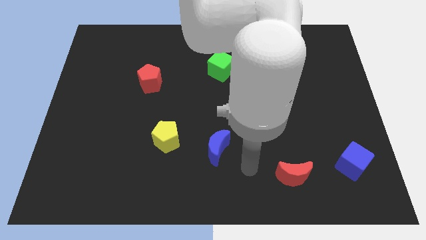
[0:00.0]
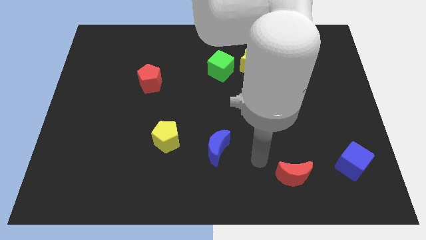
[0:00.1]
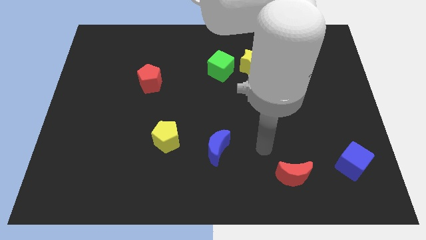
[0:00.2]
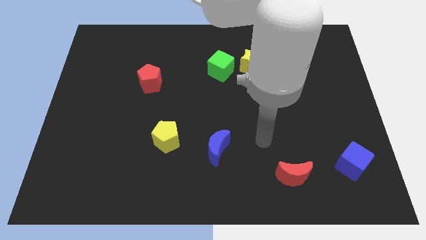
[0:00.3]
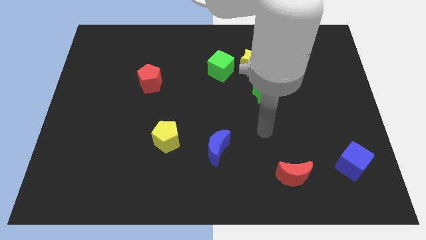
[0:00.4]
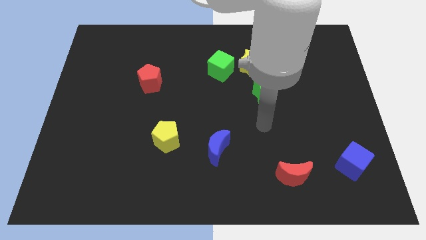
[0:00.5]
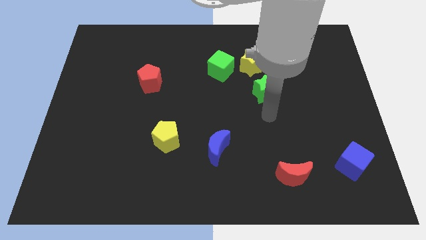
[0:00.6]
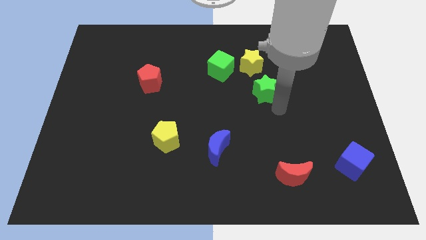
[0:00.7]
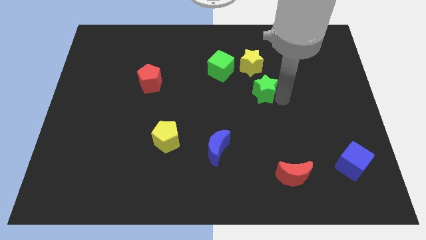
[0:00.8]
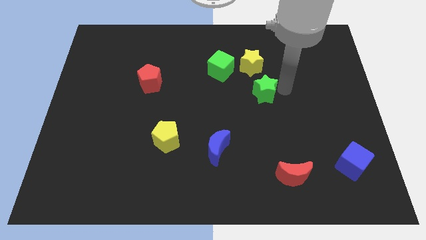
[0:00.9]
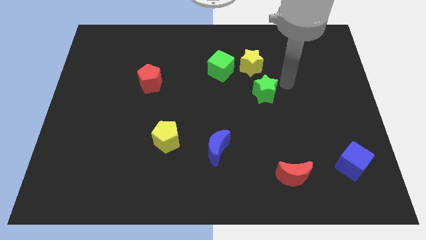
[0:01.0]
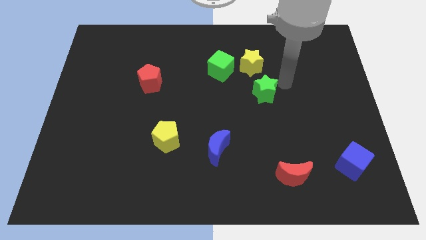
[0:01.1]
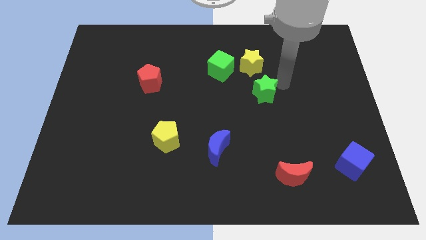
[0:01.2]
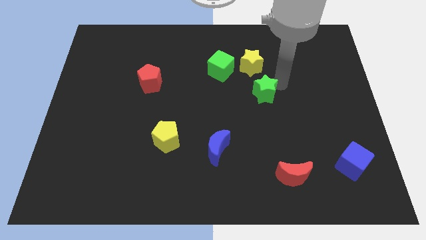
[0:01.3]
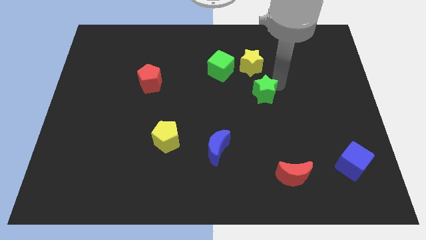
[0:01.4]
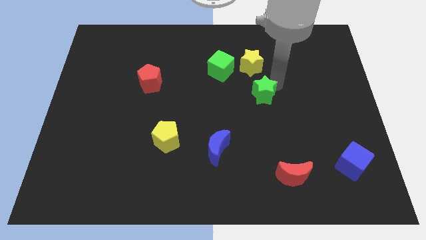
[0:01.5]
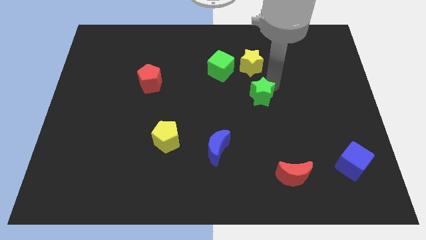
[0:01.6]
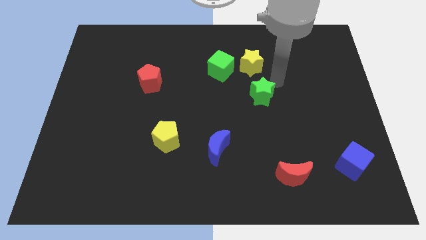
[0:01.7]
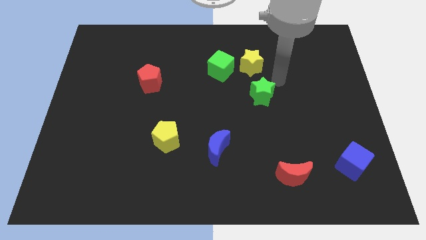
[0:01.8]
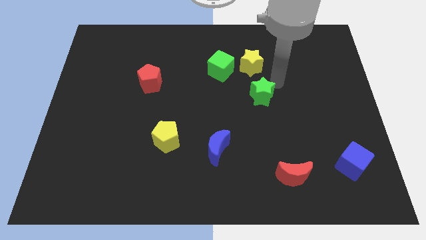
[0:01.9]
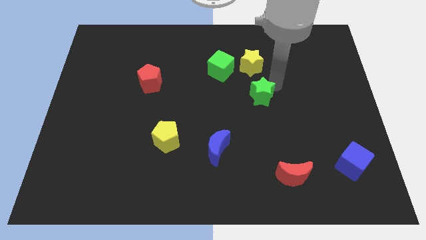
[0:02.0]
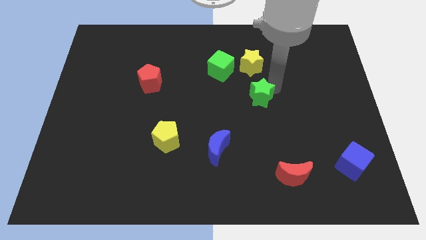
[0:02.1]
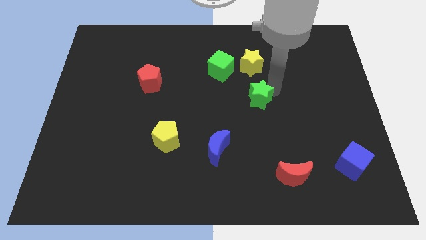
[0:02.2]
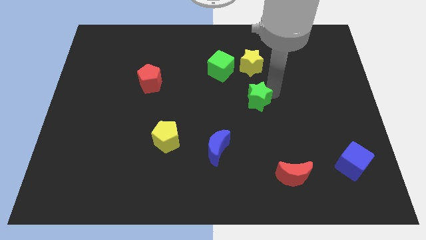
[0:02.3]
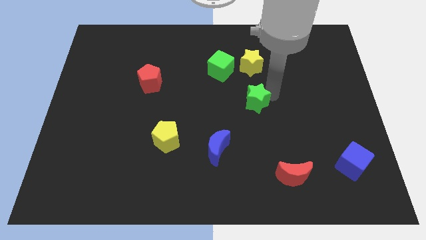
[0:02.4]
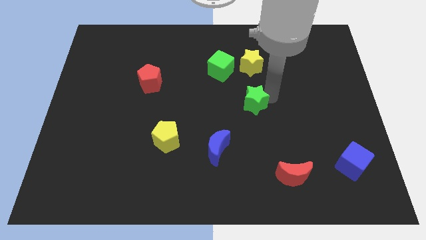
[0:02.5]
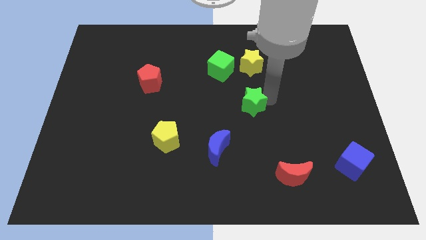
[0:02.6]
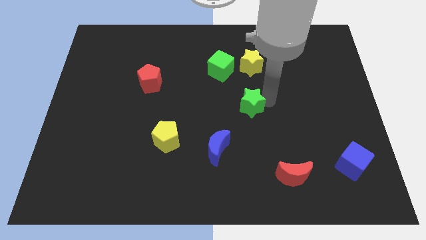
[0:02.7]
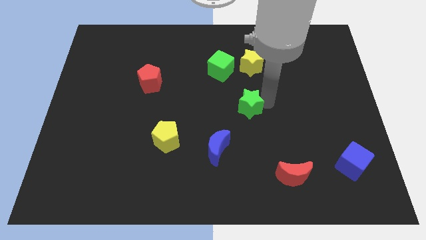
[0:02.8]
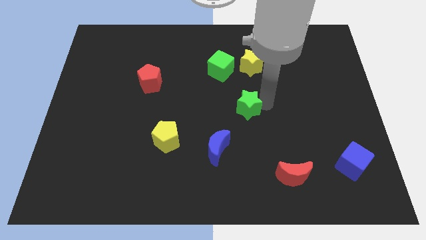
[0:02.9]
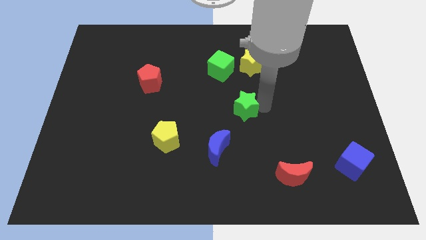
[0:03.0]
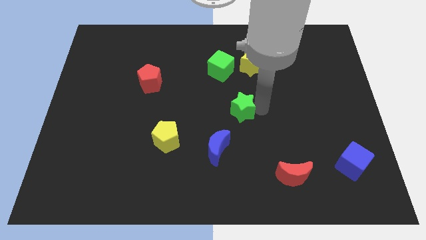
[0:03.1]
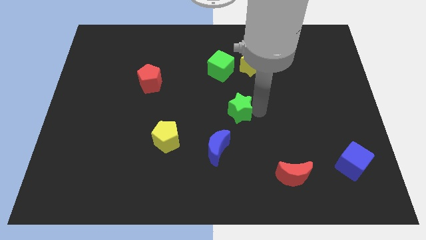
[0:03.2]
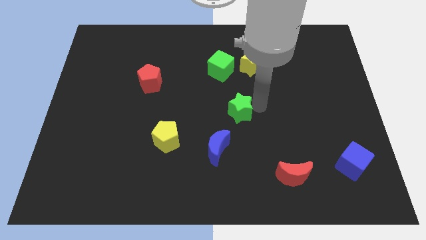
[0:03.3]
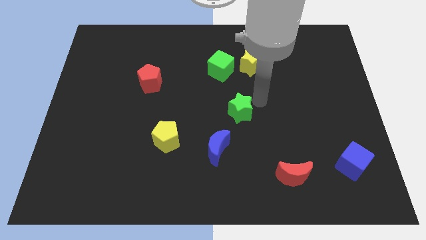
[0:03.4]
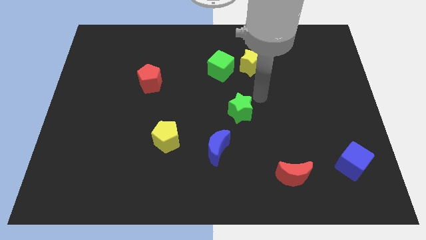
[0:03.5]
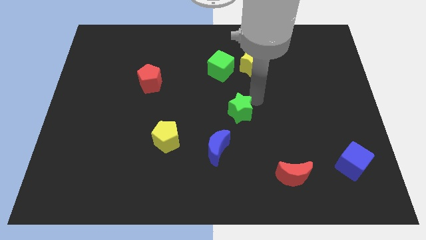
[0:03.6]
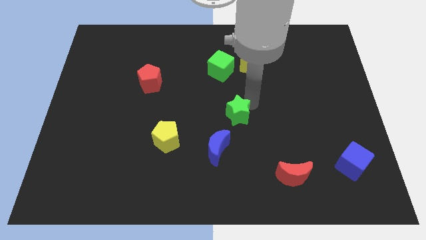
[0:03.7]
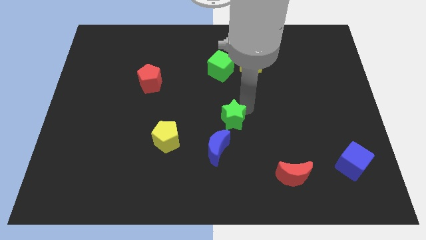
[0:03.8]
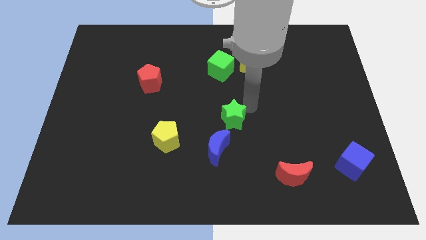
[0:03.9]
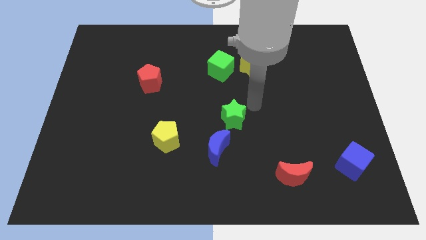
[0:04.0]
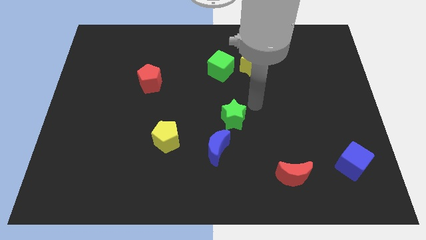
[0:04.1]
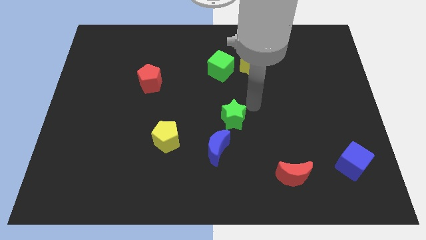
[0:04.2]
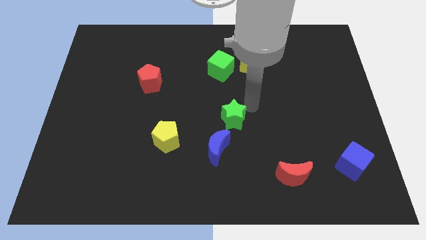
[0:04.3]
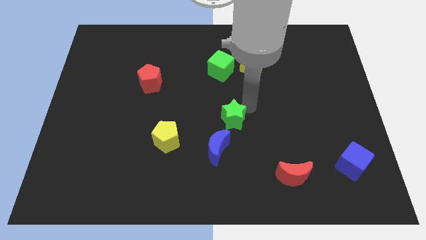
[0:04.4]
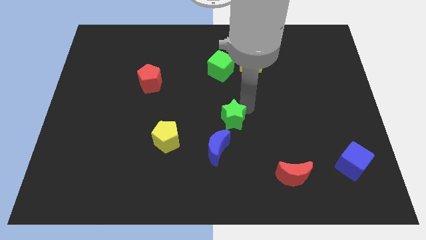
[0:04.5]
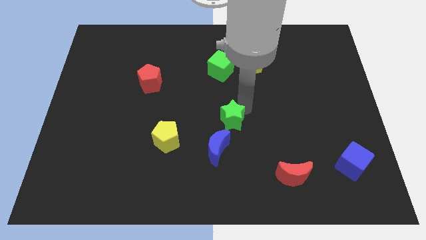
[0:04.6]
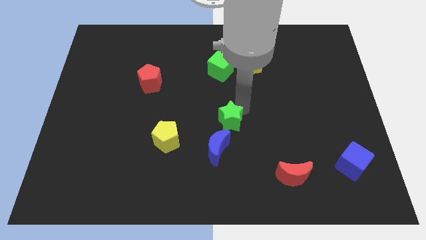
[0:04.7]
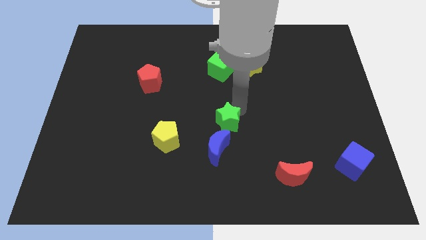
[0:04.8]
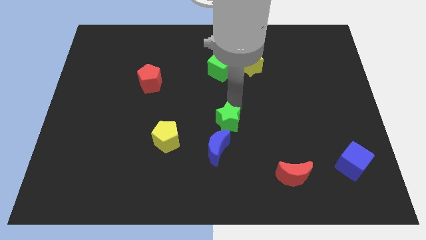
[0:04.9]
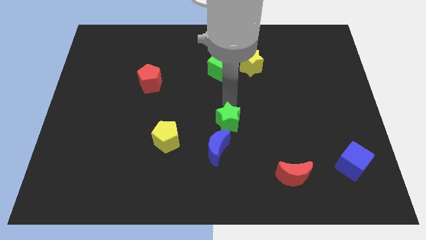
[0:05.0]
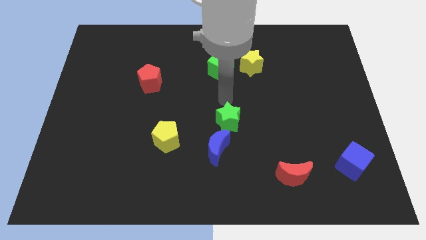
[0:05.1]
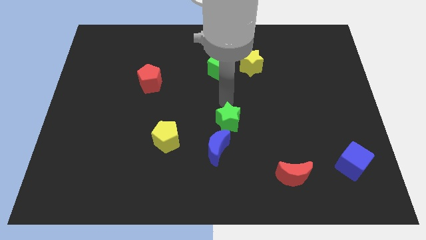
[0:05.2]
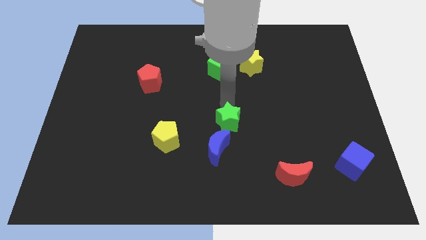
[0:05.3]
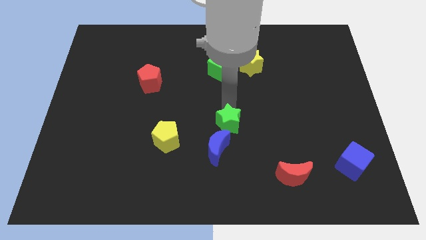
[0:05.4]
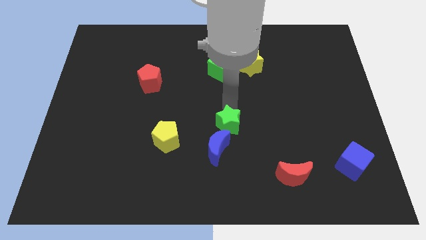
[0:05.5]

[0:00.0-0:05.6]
put the green star just right of the yellow pentagon
